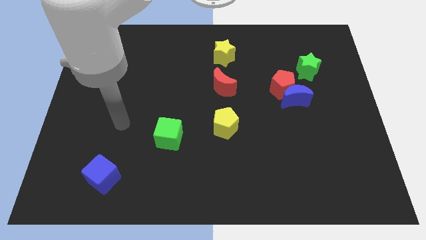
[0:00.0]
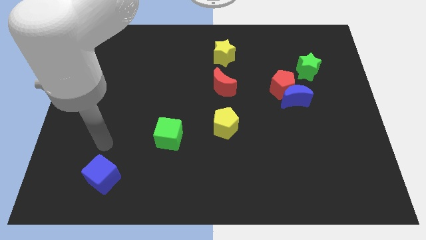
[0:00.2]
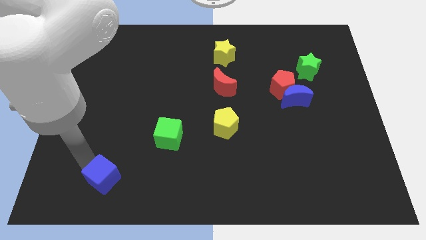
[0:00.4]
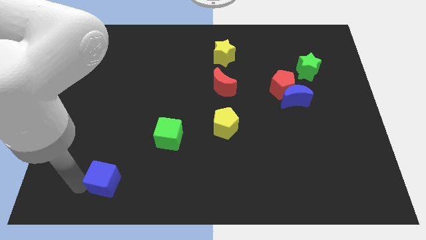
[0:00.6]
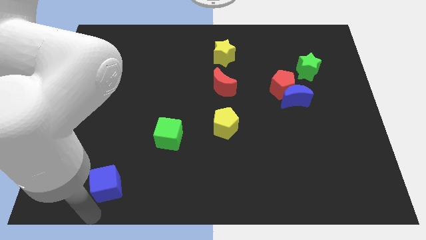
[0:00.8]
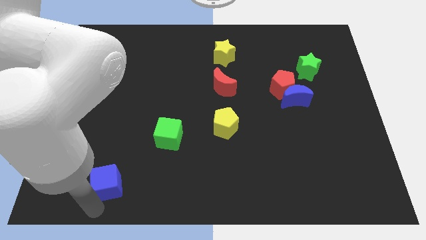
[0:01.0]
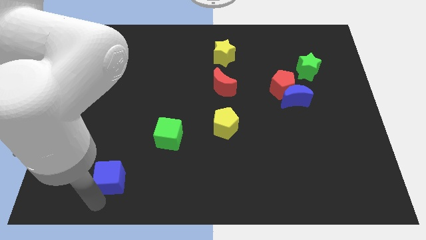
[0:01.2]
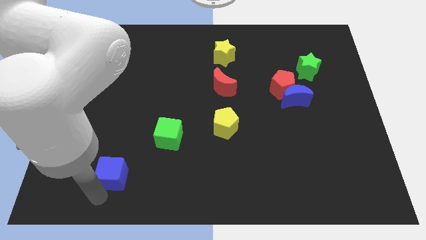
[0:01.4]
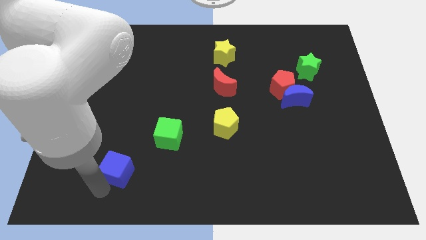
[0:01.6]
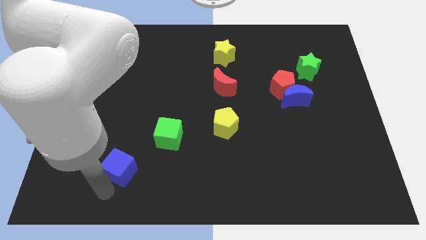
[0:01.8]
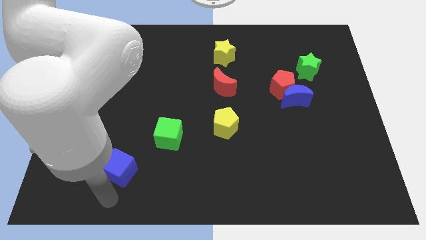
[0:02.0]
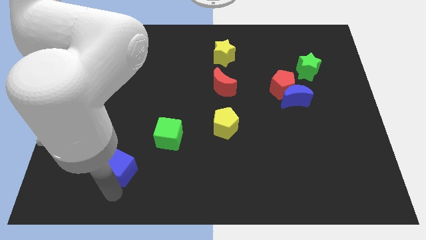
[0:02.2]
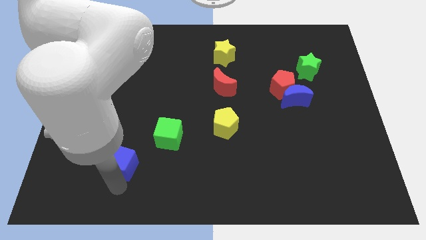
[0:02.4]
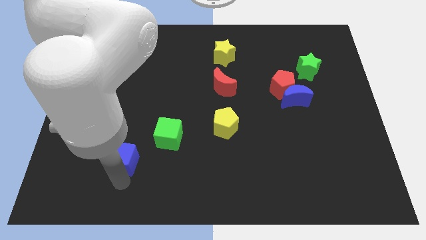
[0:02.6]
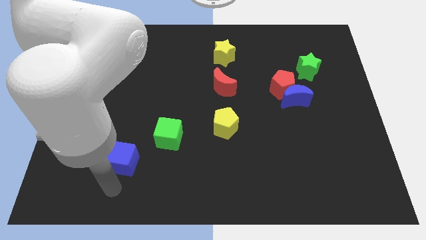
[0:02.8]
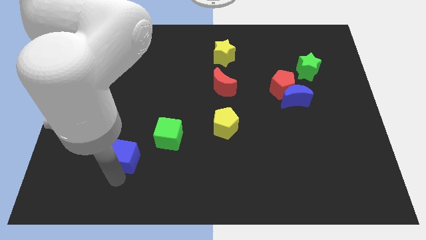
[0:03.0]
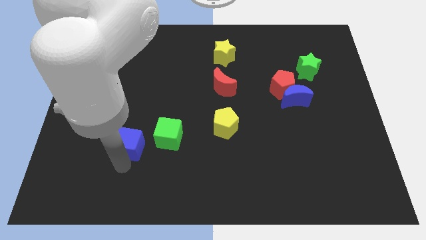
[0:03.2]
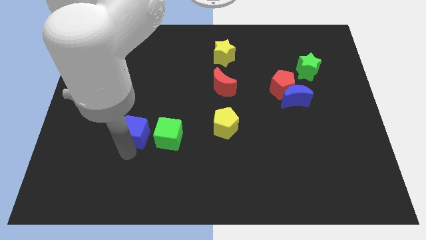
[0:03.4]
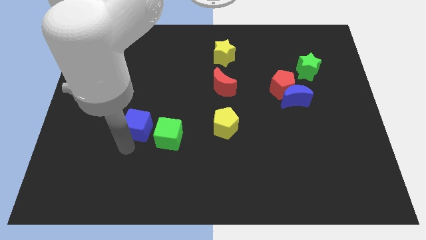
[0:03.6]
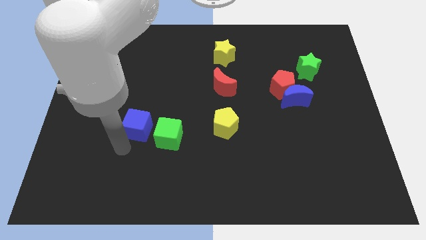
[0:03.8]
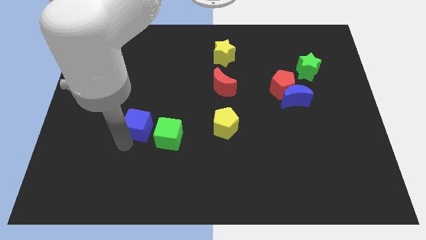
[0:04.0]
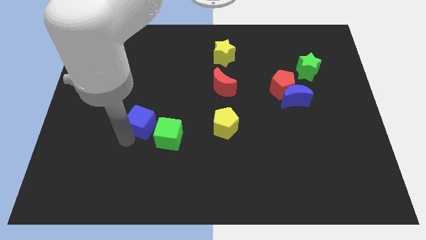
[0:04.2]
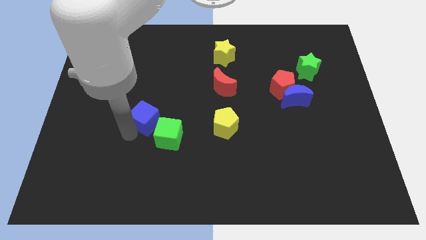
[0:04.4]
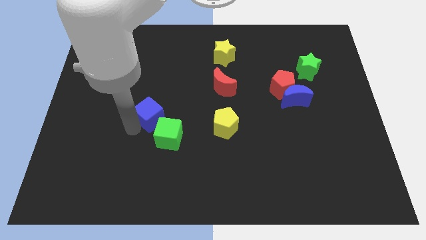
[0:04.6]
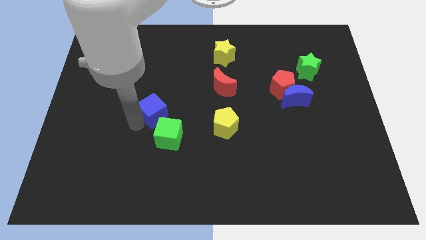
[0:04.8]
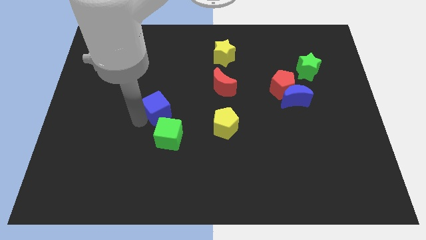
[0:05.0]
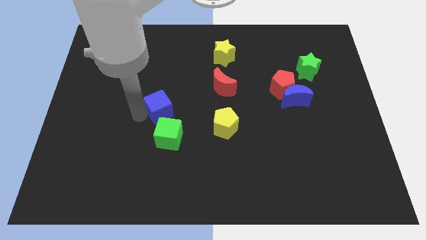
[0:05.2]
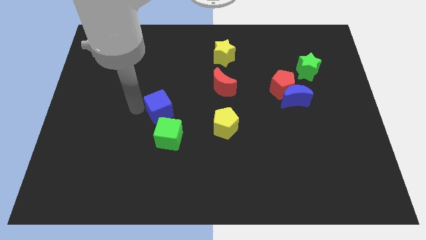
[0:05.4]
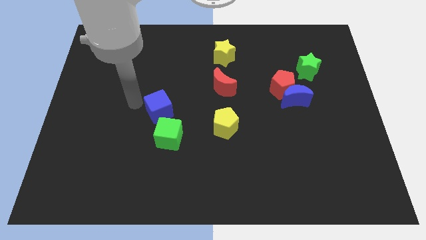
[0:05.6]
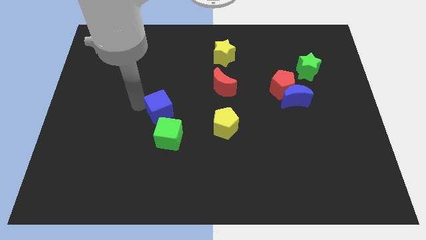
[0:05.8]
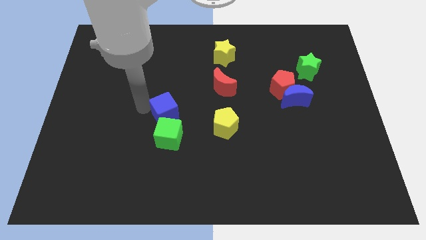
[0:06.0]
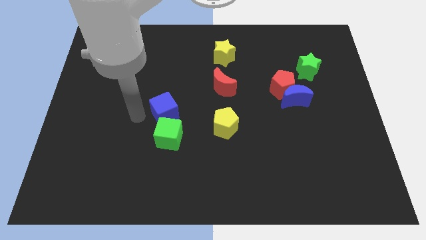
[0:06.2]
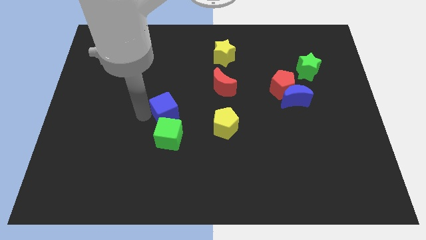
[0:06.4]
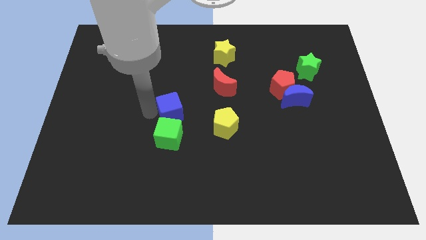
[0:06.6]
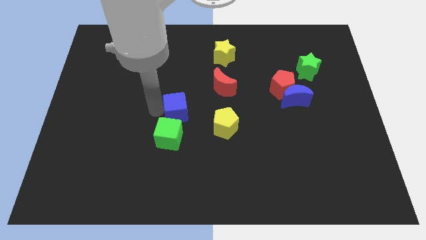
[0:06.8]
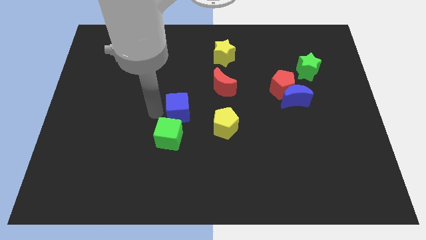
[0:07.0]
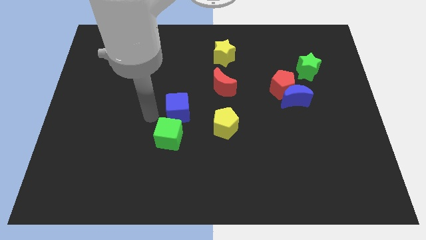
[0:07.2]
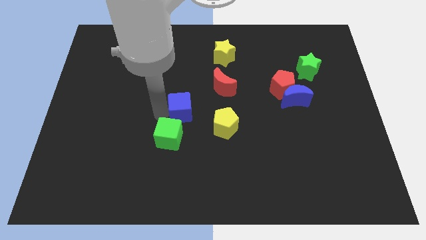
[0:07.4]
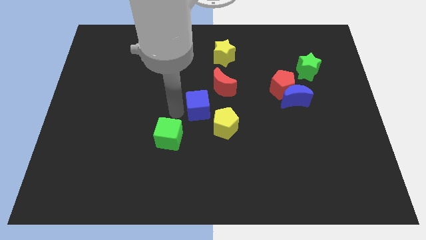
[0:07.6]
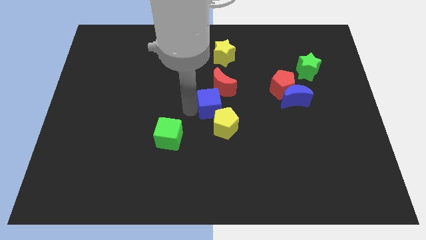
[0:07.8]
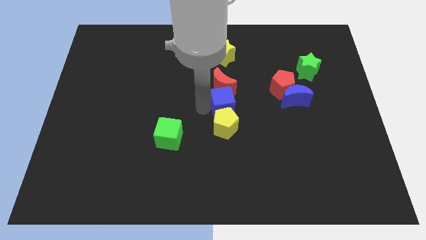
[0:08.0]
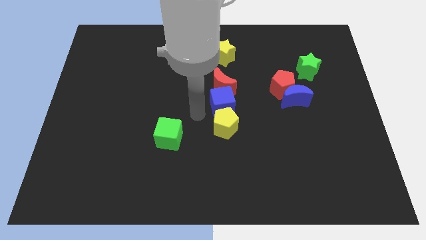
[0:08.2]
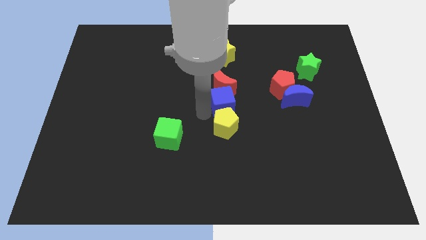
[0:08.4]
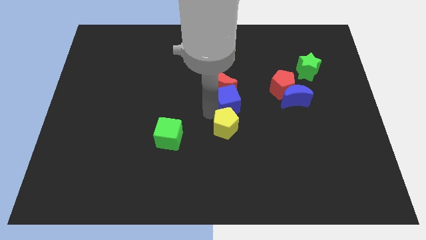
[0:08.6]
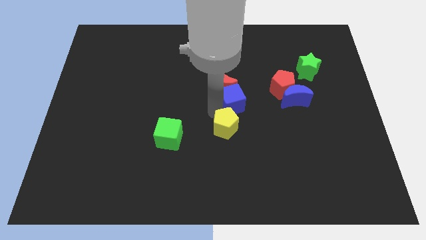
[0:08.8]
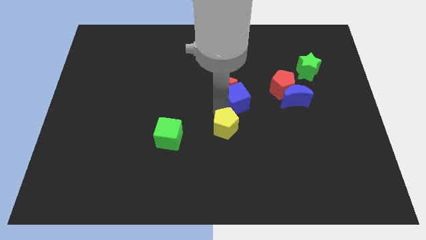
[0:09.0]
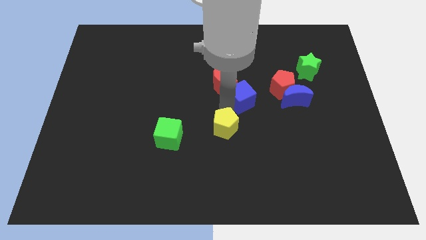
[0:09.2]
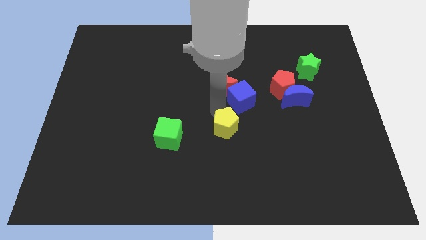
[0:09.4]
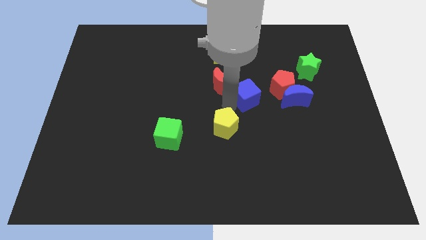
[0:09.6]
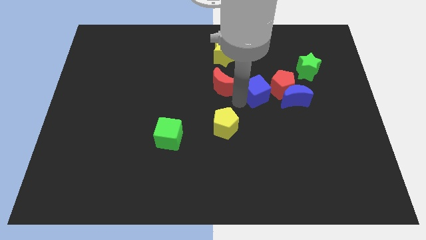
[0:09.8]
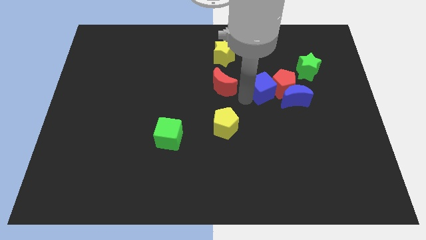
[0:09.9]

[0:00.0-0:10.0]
move the blue cube to the red pentagon

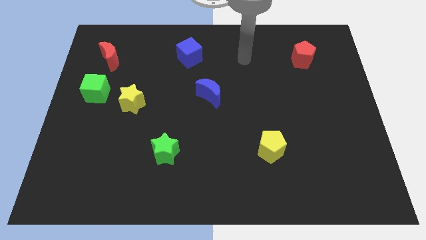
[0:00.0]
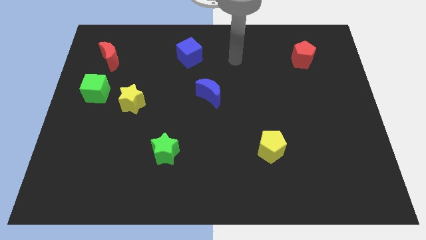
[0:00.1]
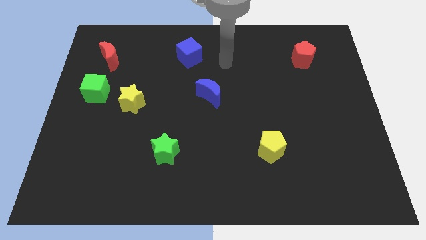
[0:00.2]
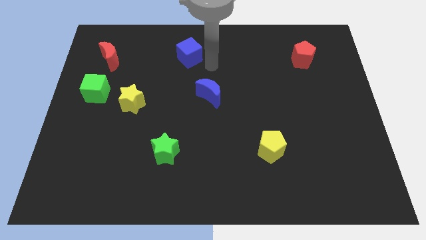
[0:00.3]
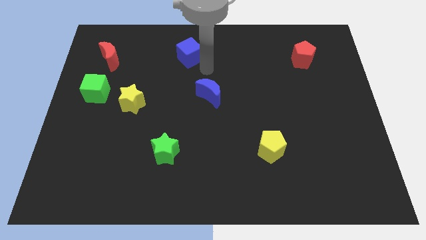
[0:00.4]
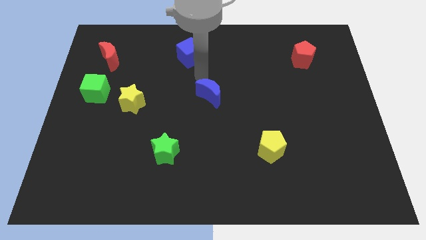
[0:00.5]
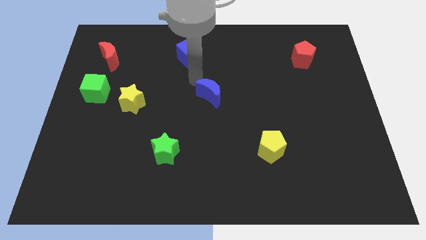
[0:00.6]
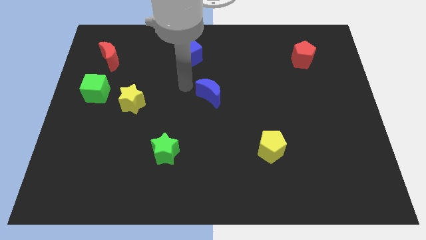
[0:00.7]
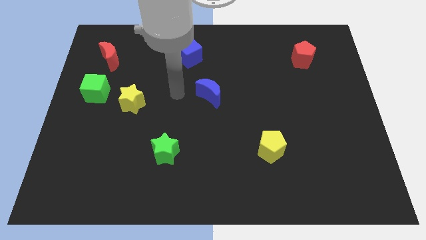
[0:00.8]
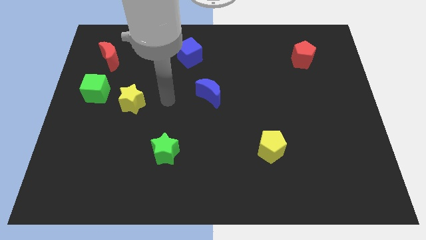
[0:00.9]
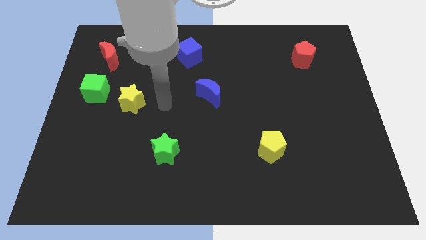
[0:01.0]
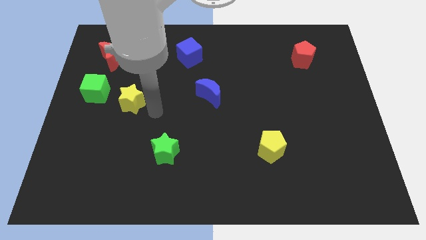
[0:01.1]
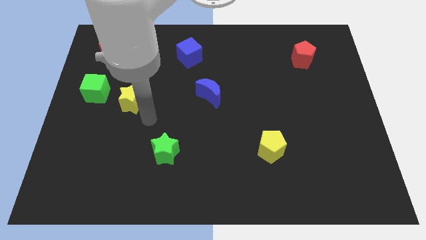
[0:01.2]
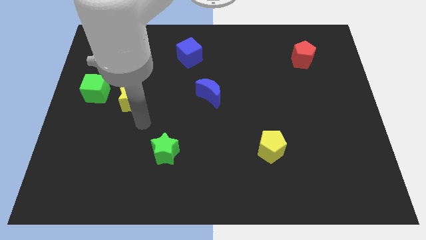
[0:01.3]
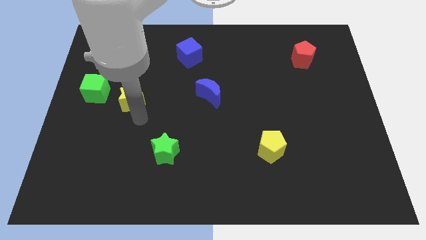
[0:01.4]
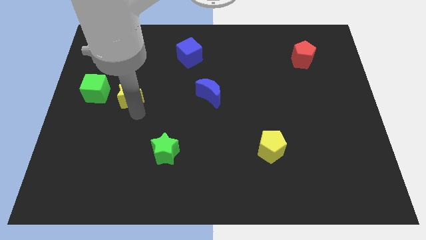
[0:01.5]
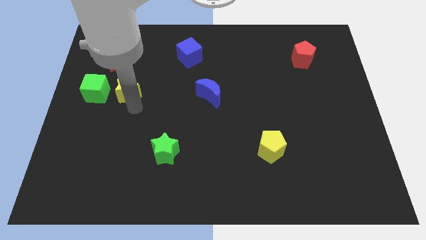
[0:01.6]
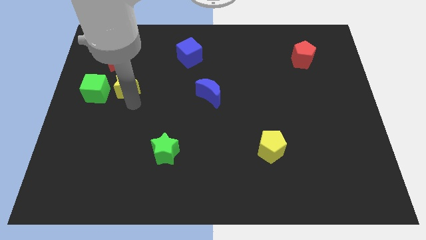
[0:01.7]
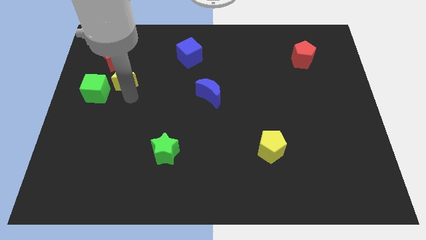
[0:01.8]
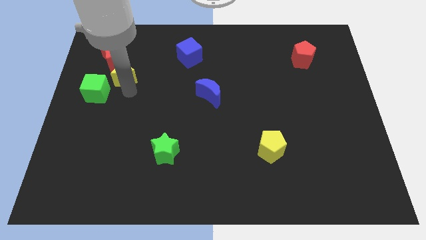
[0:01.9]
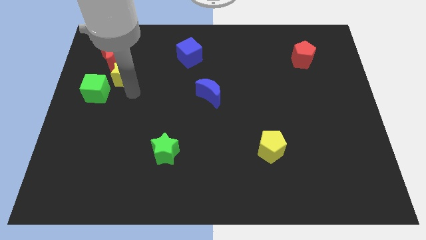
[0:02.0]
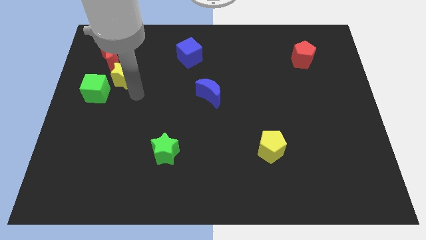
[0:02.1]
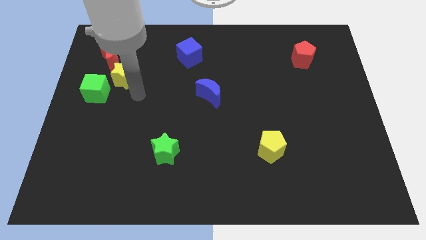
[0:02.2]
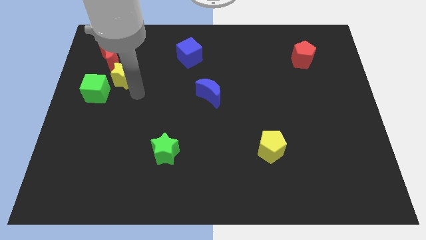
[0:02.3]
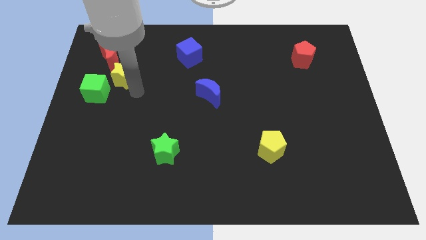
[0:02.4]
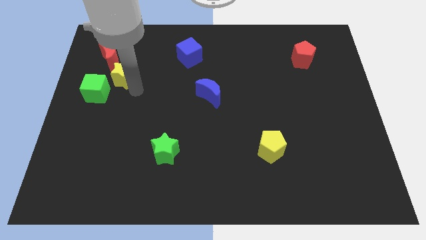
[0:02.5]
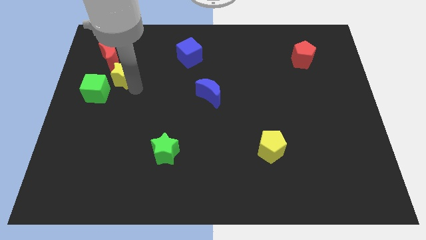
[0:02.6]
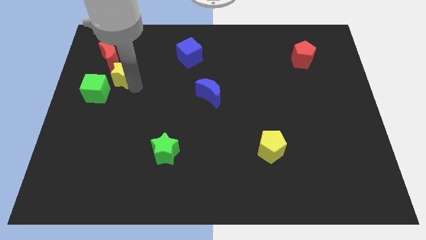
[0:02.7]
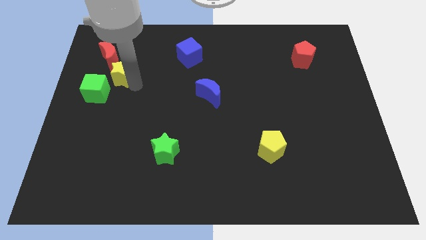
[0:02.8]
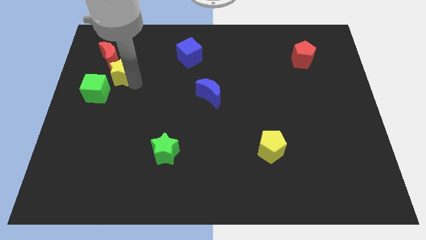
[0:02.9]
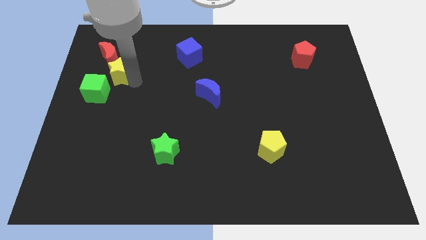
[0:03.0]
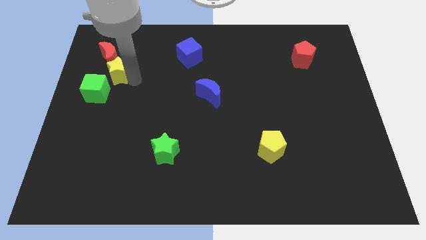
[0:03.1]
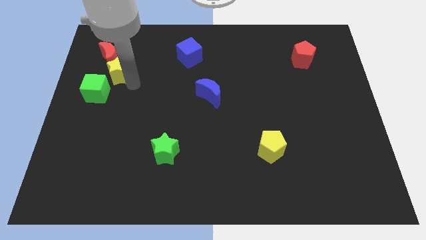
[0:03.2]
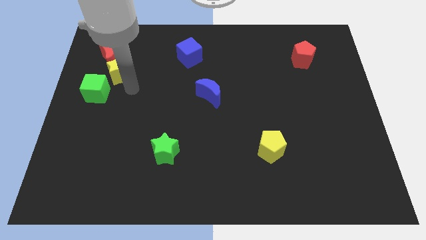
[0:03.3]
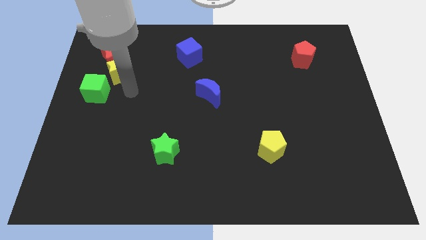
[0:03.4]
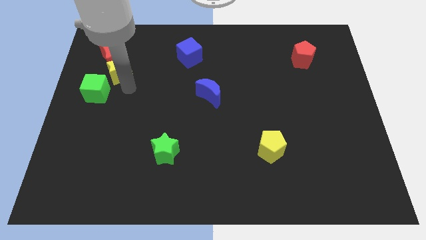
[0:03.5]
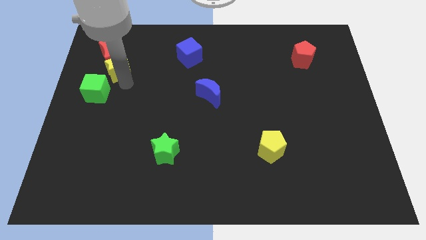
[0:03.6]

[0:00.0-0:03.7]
move the yellow star towards the red moon
